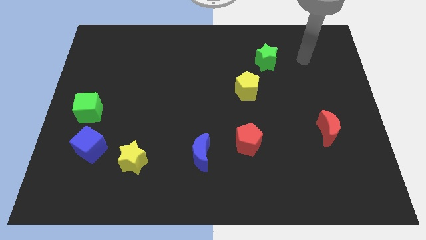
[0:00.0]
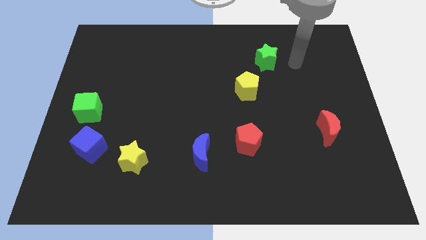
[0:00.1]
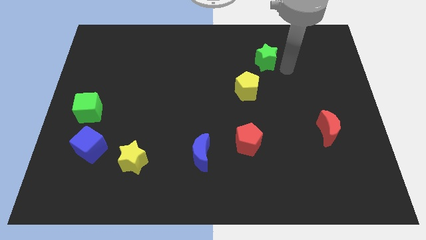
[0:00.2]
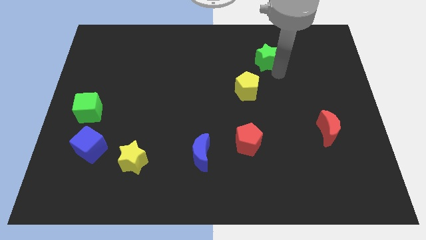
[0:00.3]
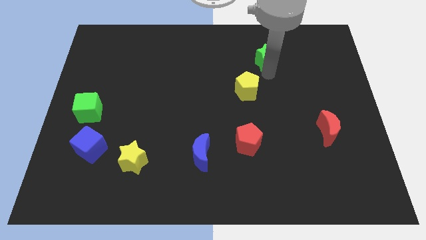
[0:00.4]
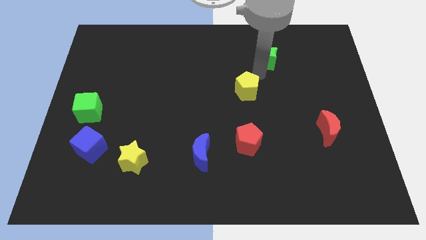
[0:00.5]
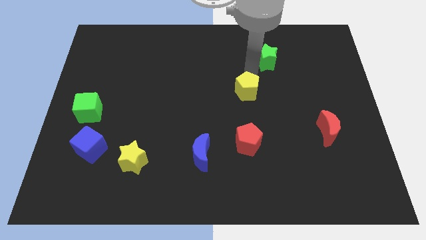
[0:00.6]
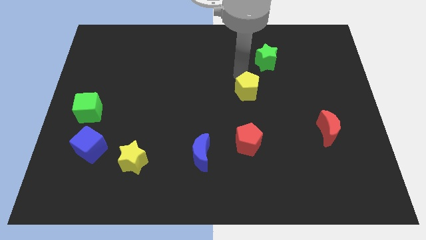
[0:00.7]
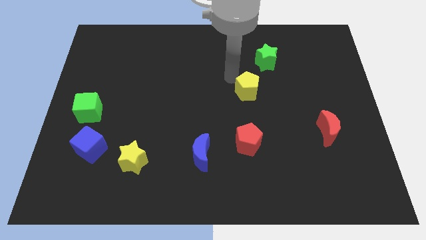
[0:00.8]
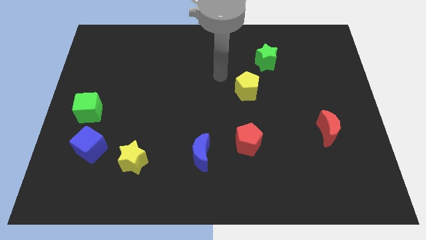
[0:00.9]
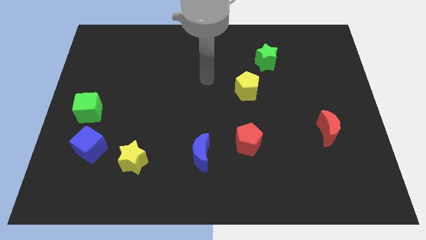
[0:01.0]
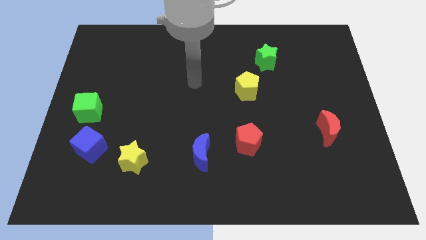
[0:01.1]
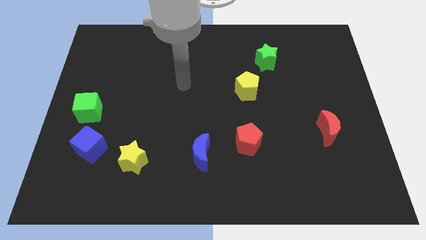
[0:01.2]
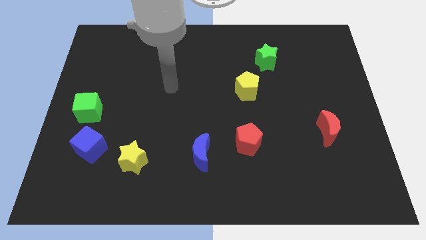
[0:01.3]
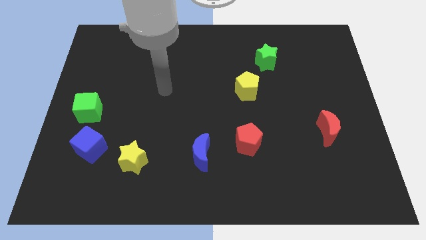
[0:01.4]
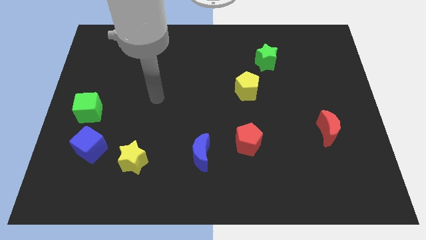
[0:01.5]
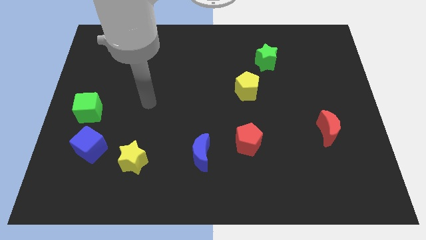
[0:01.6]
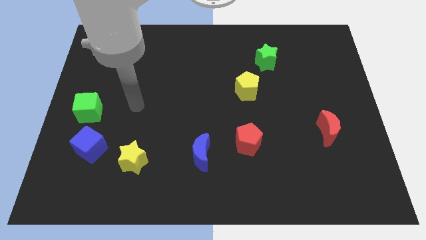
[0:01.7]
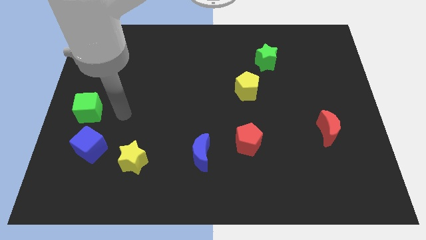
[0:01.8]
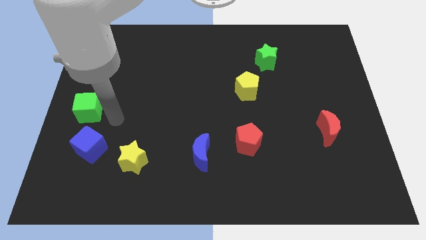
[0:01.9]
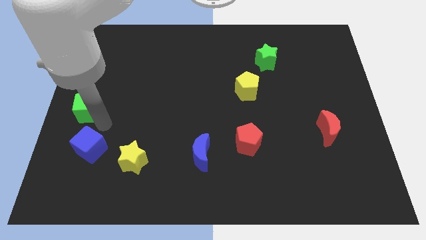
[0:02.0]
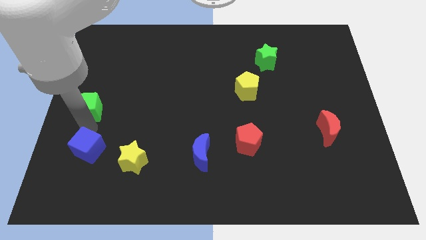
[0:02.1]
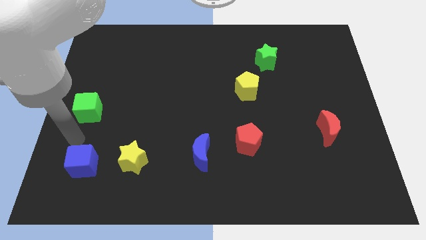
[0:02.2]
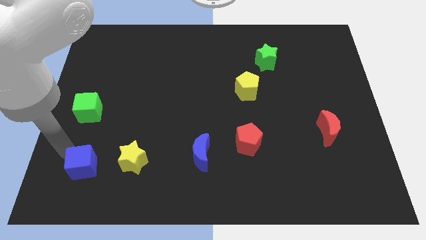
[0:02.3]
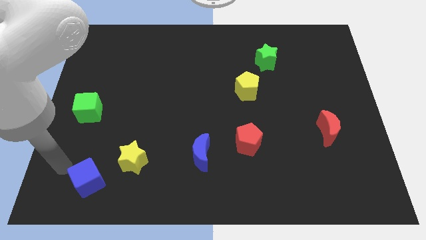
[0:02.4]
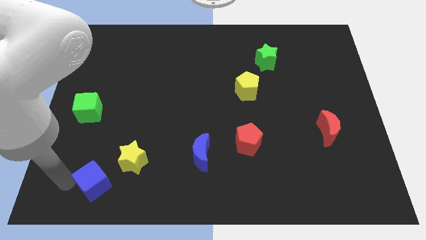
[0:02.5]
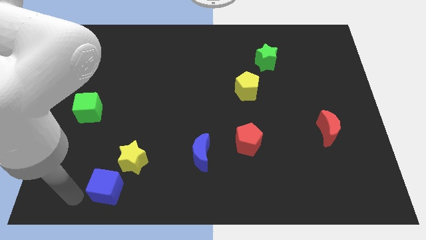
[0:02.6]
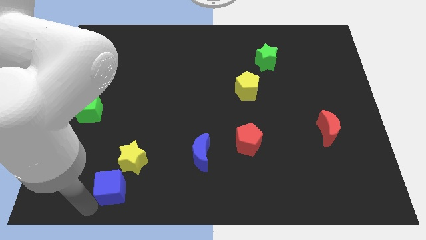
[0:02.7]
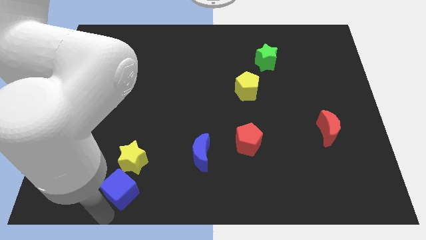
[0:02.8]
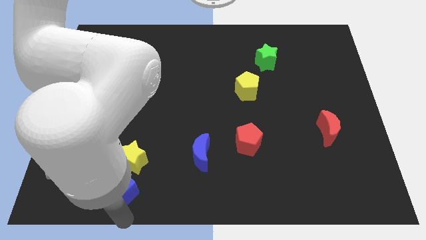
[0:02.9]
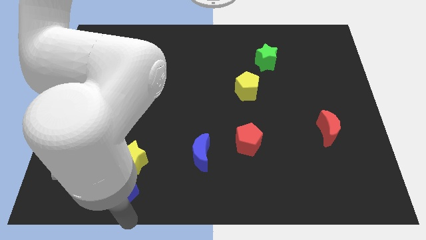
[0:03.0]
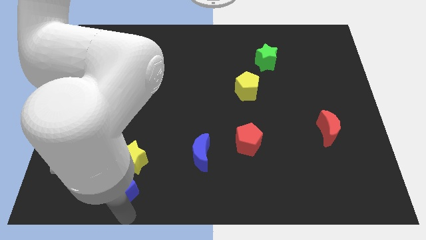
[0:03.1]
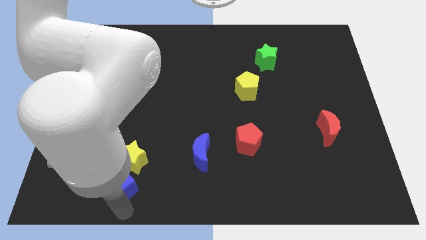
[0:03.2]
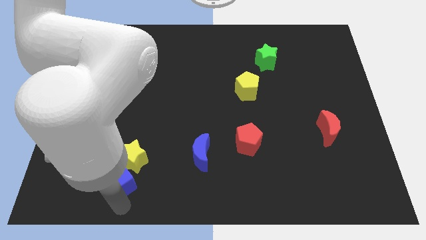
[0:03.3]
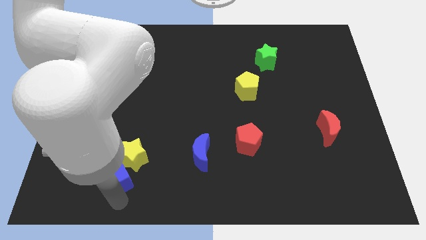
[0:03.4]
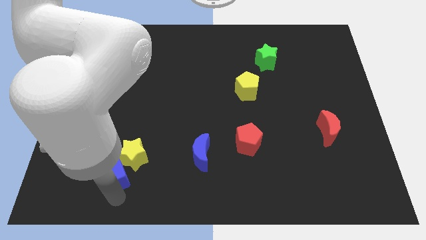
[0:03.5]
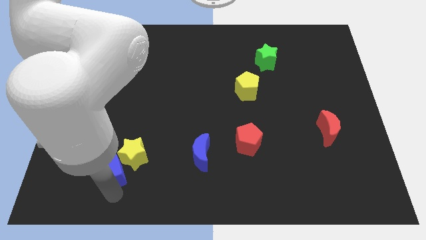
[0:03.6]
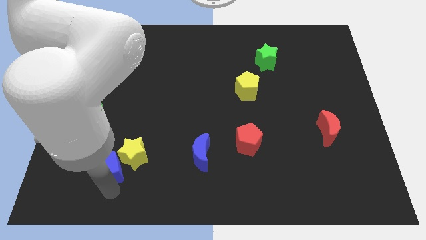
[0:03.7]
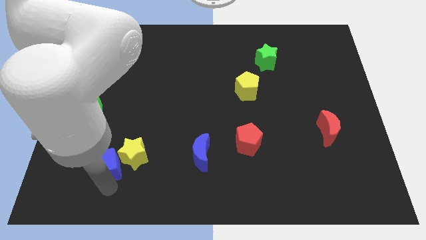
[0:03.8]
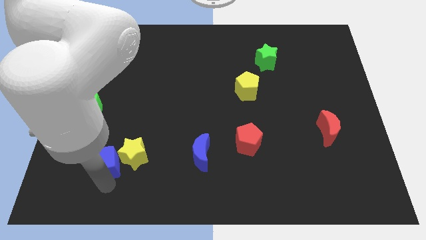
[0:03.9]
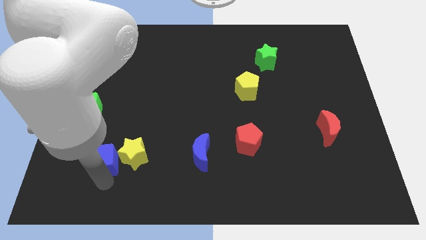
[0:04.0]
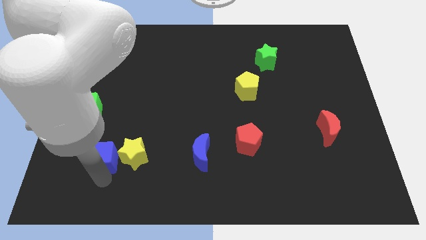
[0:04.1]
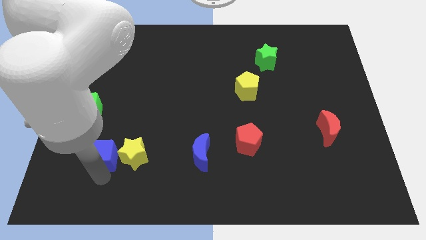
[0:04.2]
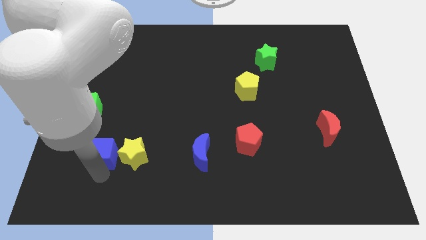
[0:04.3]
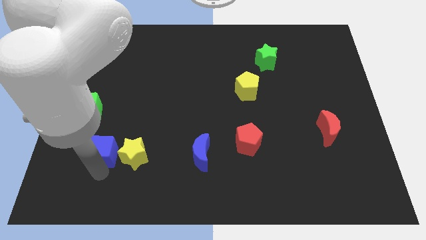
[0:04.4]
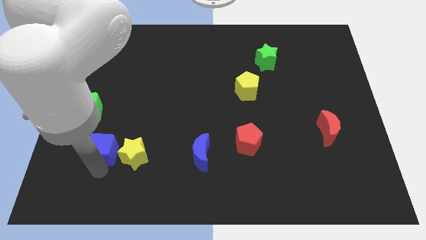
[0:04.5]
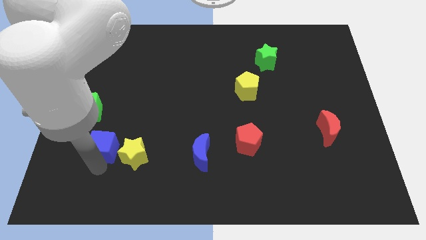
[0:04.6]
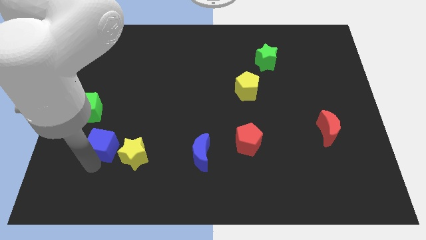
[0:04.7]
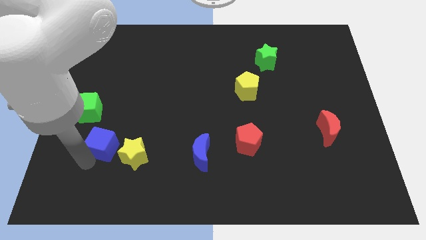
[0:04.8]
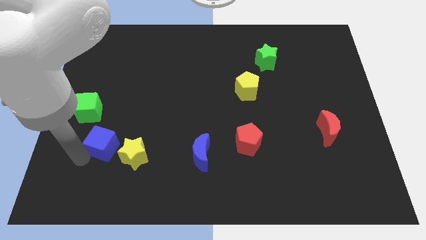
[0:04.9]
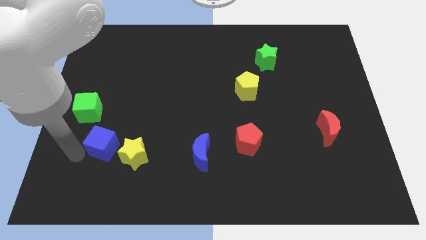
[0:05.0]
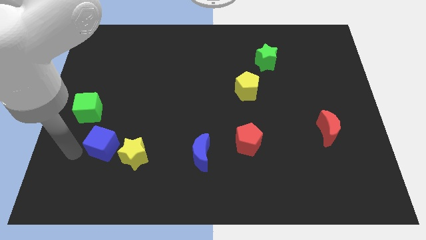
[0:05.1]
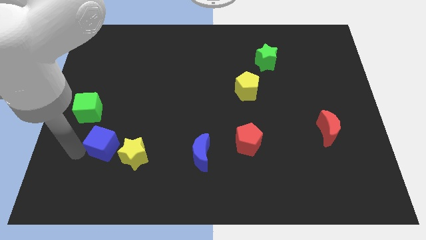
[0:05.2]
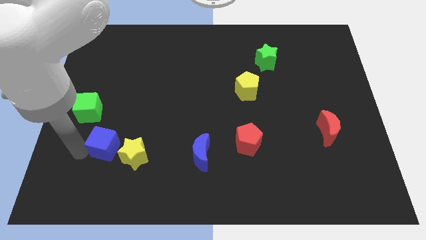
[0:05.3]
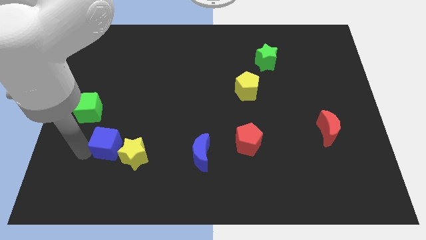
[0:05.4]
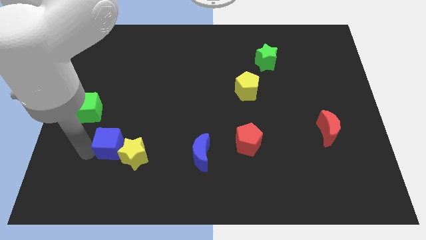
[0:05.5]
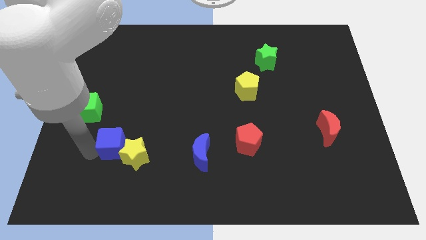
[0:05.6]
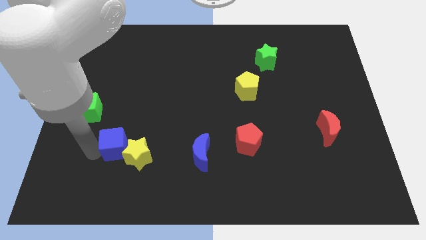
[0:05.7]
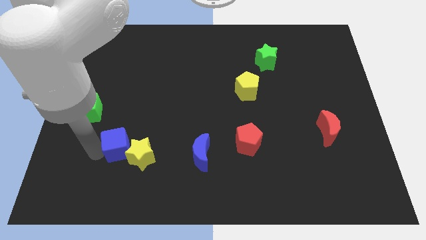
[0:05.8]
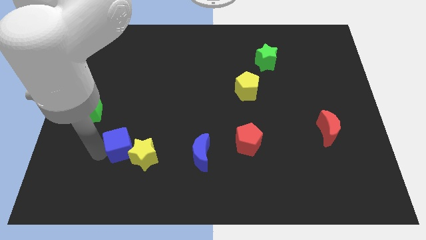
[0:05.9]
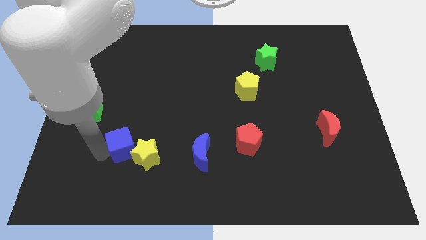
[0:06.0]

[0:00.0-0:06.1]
push the blue cube to the right a bit

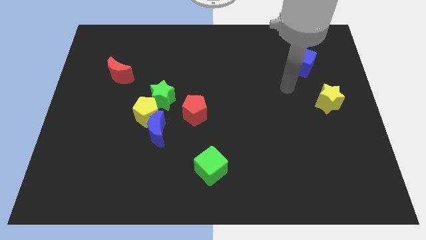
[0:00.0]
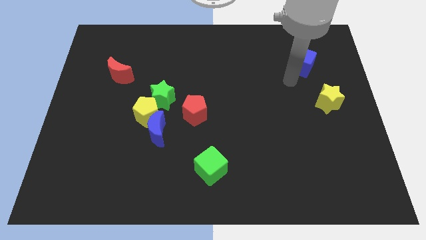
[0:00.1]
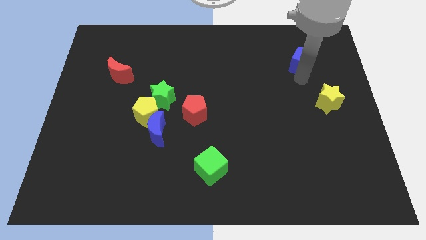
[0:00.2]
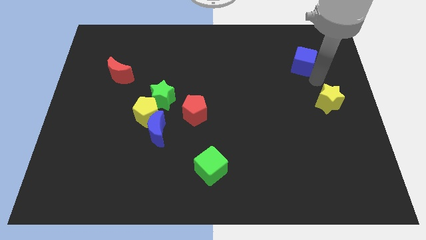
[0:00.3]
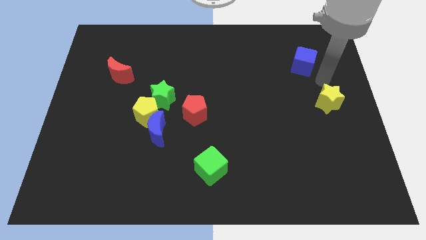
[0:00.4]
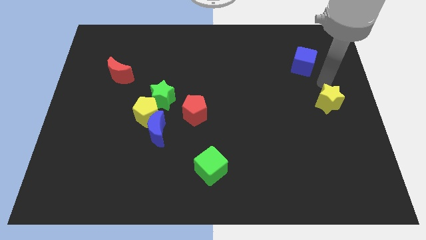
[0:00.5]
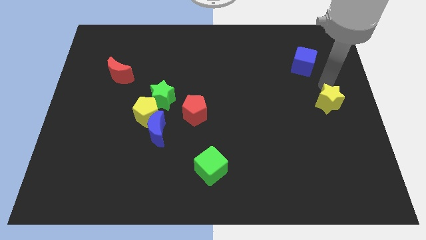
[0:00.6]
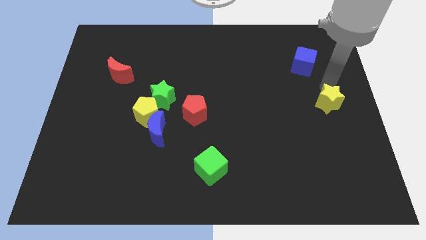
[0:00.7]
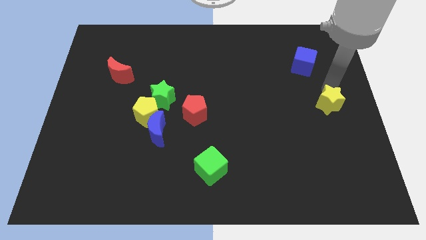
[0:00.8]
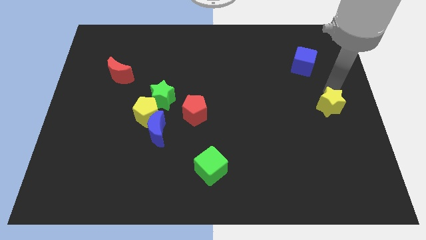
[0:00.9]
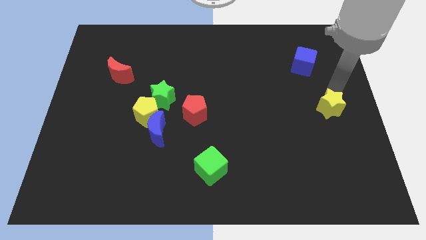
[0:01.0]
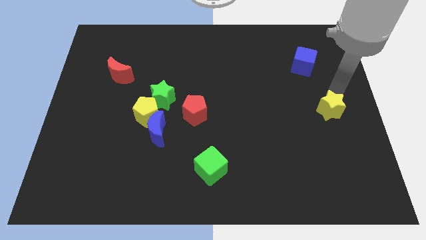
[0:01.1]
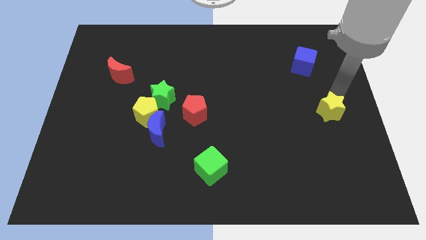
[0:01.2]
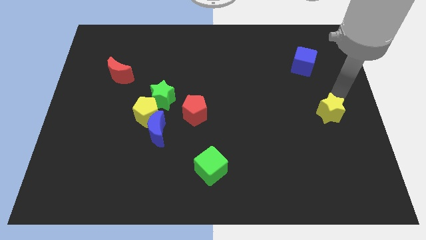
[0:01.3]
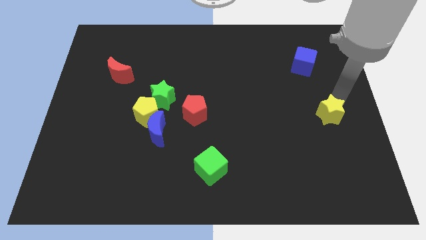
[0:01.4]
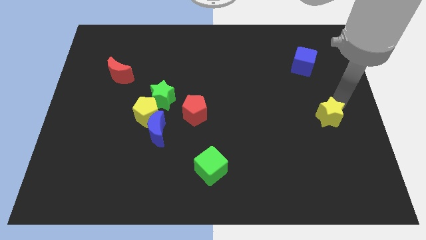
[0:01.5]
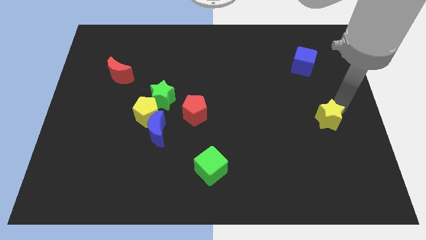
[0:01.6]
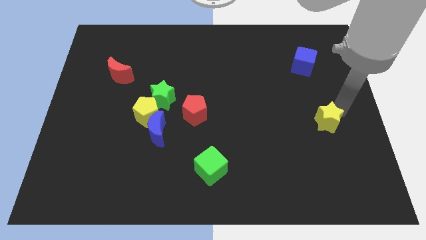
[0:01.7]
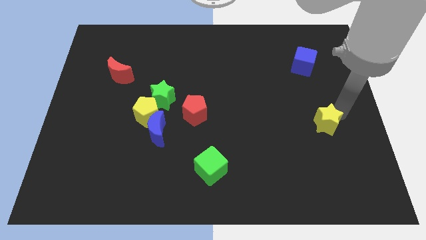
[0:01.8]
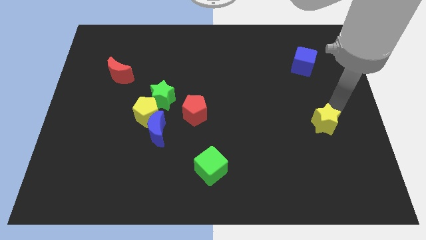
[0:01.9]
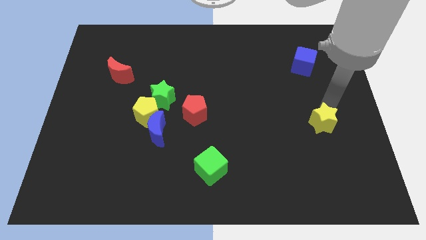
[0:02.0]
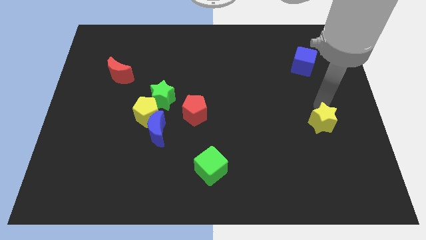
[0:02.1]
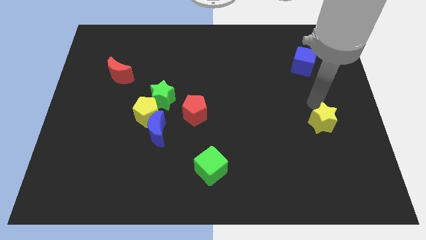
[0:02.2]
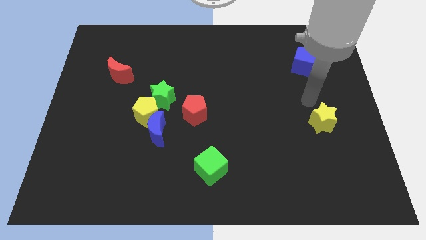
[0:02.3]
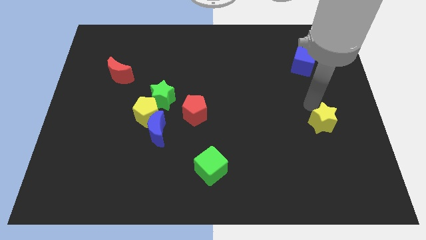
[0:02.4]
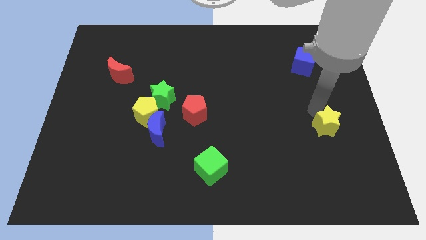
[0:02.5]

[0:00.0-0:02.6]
slightly slide the yellow star down
